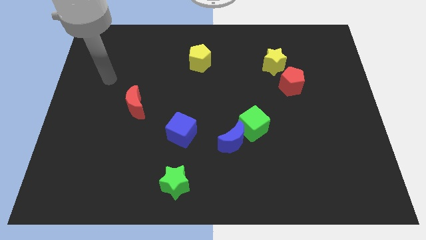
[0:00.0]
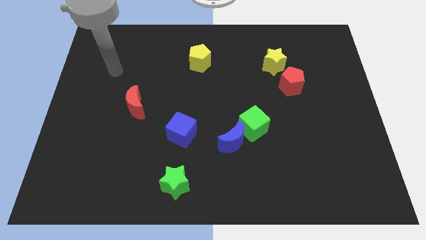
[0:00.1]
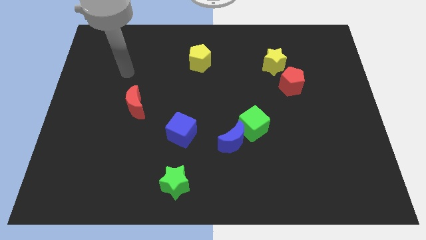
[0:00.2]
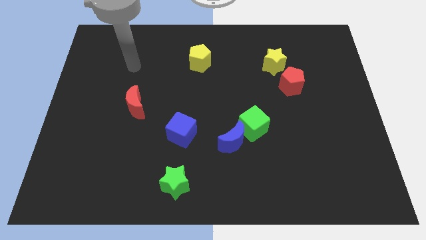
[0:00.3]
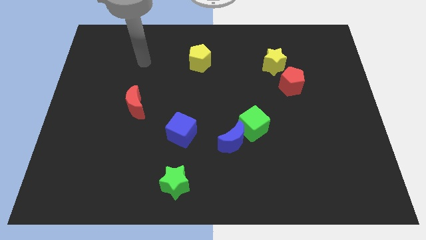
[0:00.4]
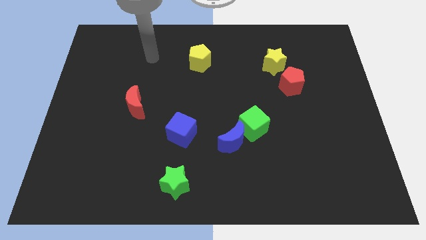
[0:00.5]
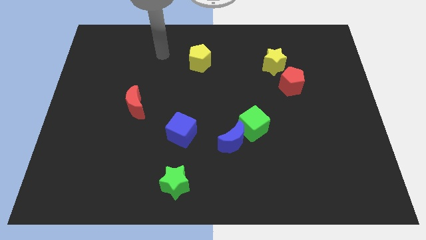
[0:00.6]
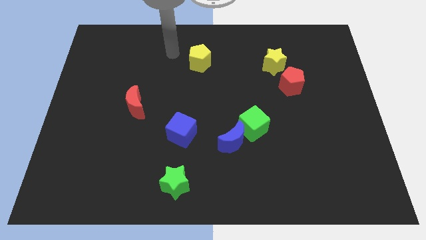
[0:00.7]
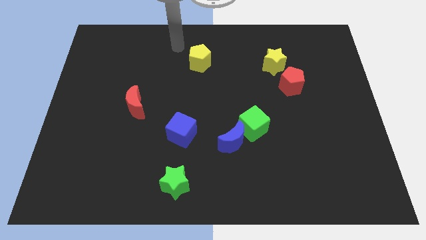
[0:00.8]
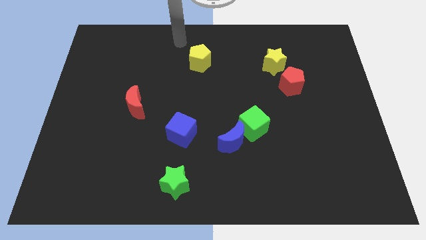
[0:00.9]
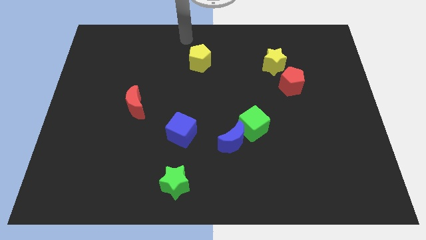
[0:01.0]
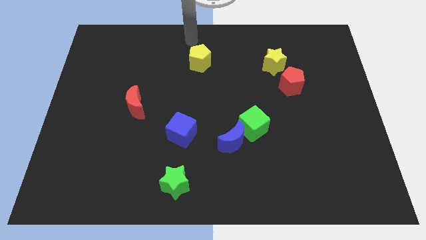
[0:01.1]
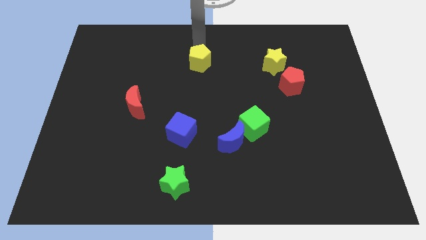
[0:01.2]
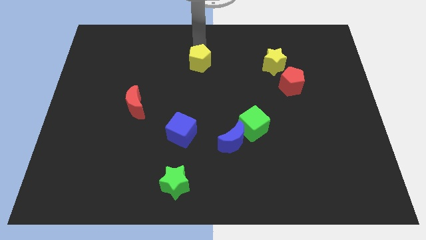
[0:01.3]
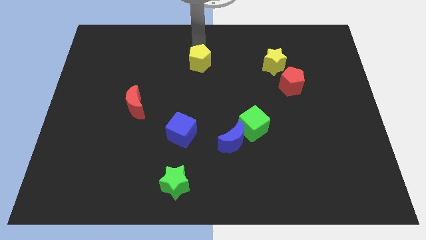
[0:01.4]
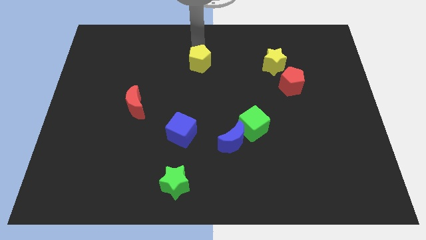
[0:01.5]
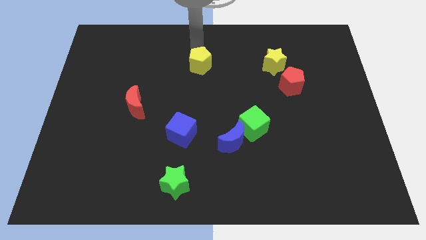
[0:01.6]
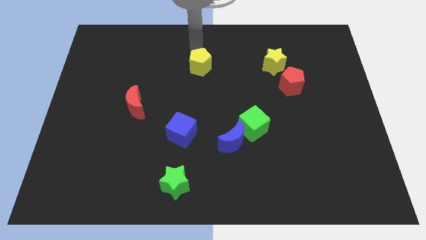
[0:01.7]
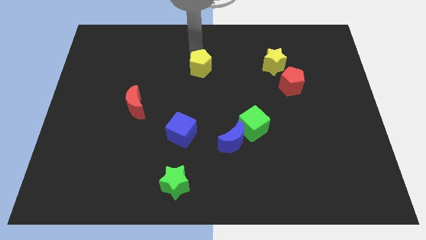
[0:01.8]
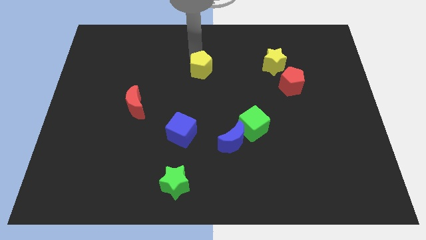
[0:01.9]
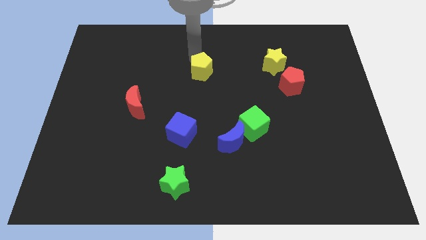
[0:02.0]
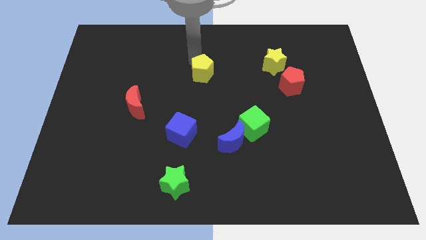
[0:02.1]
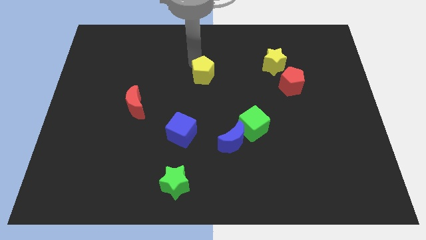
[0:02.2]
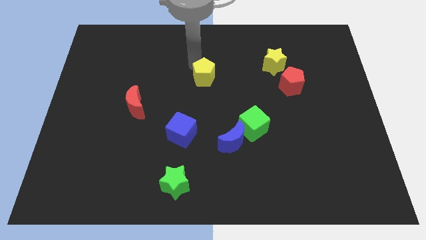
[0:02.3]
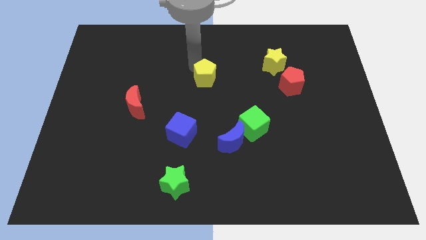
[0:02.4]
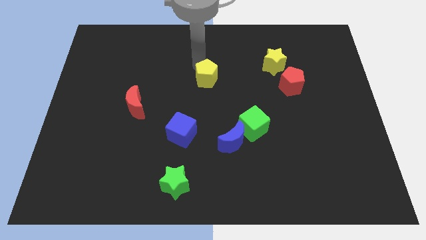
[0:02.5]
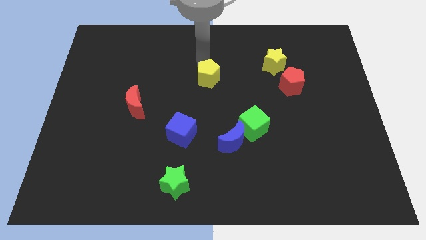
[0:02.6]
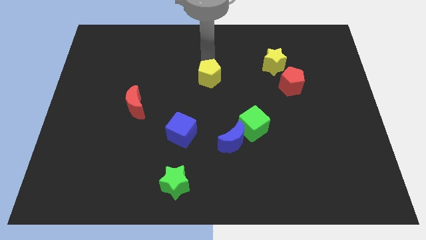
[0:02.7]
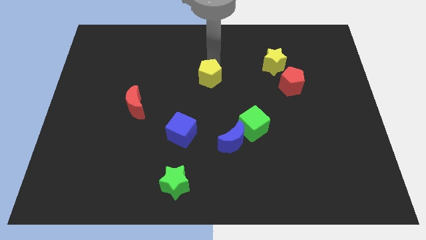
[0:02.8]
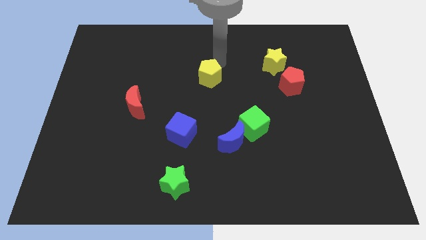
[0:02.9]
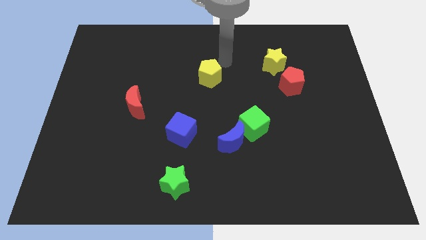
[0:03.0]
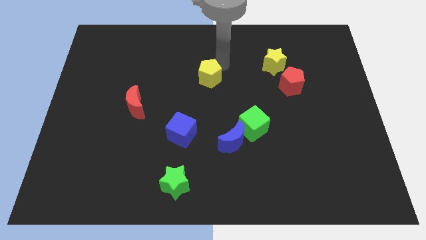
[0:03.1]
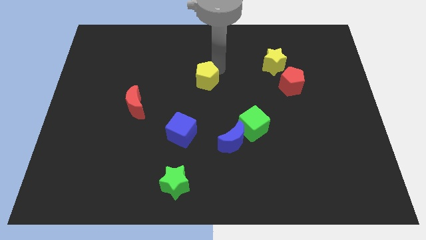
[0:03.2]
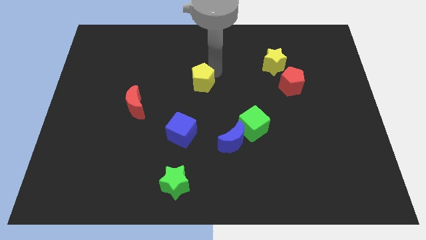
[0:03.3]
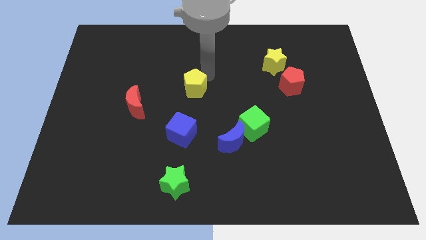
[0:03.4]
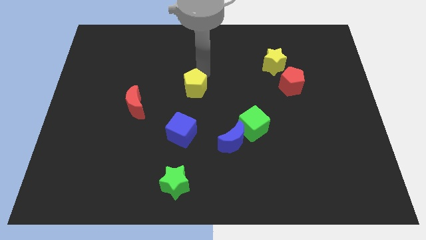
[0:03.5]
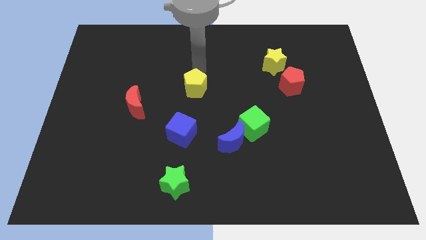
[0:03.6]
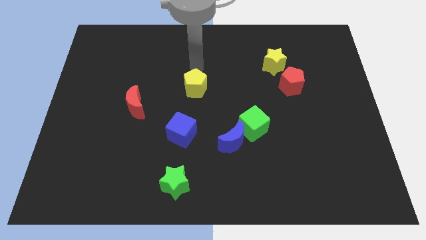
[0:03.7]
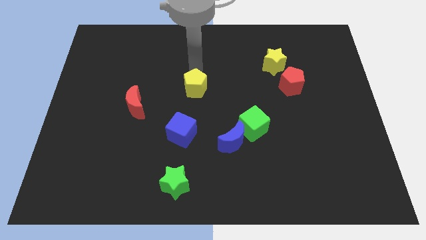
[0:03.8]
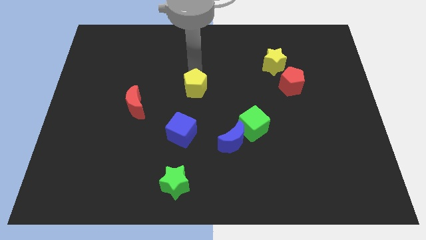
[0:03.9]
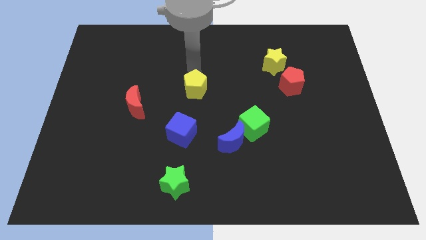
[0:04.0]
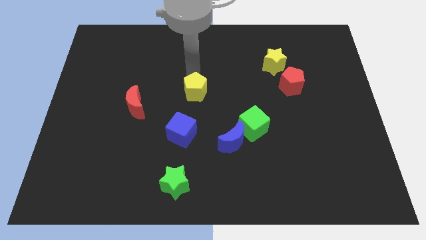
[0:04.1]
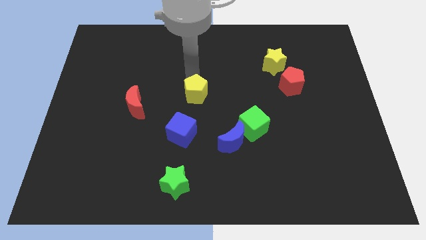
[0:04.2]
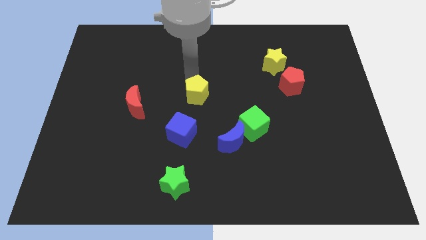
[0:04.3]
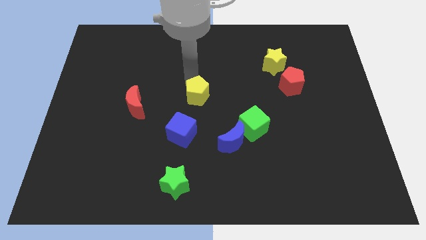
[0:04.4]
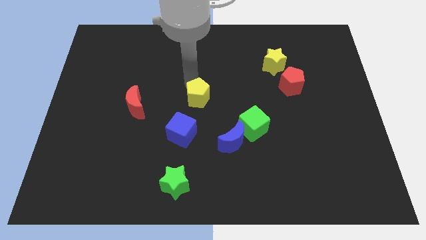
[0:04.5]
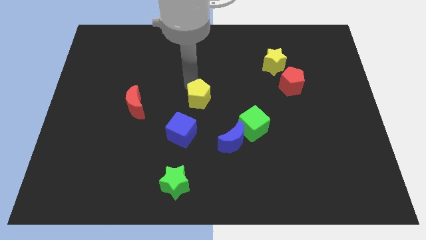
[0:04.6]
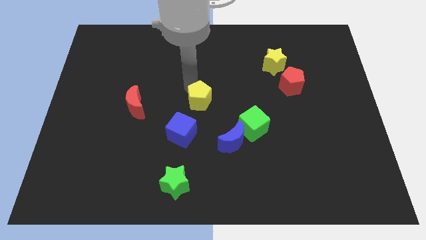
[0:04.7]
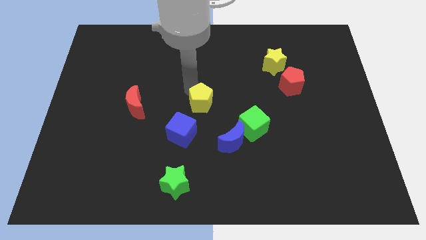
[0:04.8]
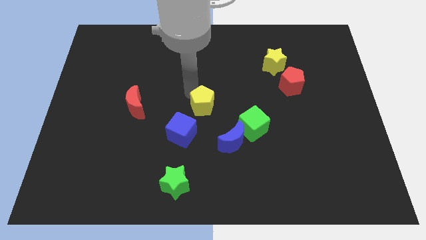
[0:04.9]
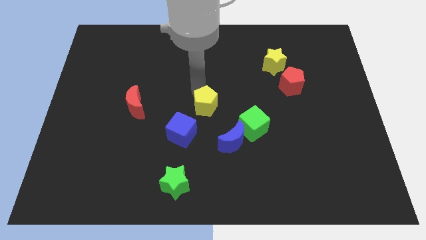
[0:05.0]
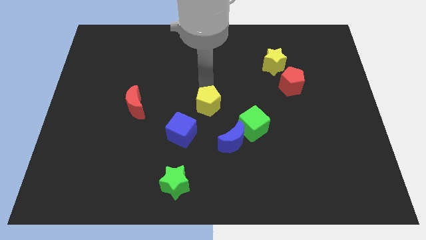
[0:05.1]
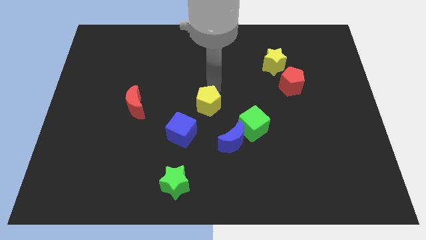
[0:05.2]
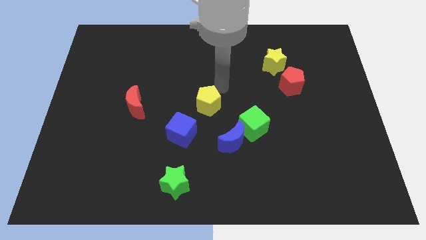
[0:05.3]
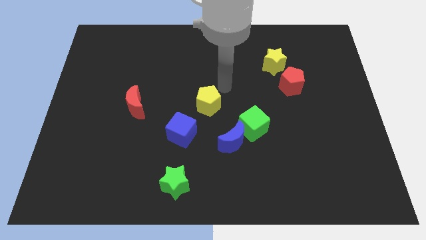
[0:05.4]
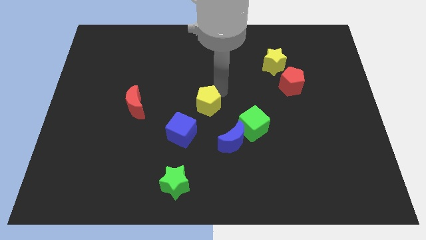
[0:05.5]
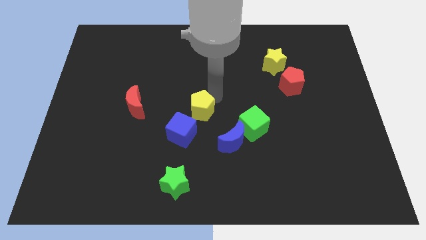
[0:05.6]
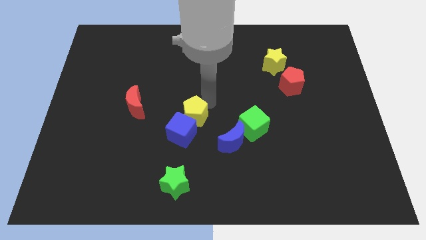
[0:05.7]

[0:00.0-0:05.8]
push the yellow pentagon next to the blue cube

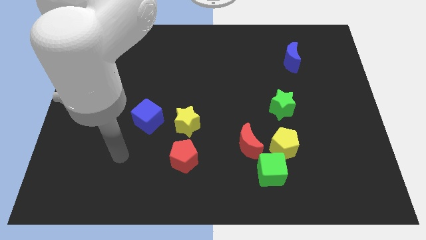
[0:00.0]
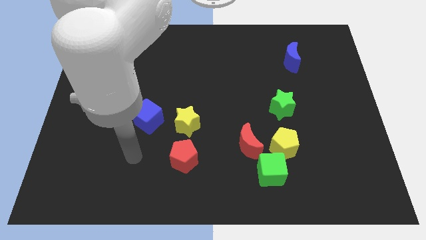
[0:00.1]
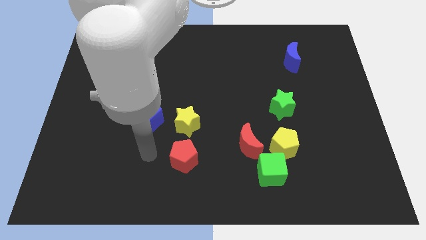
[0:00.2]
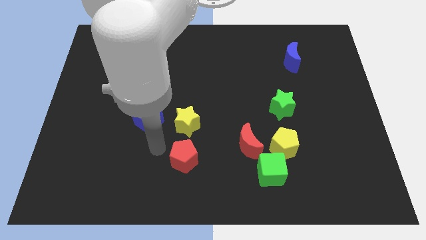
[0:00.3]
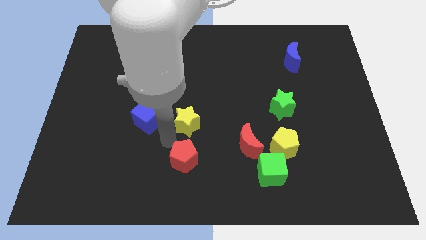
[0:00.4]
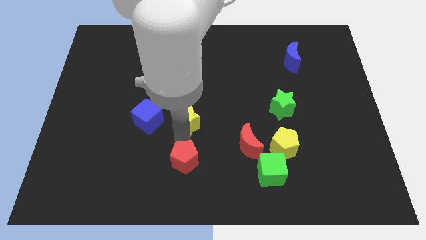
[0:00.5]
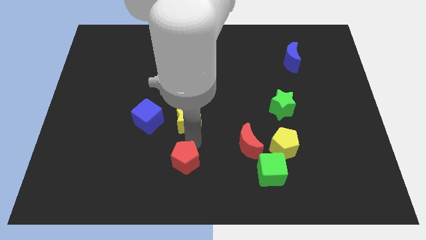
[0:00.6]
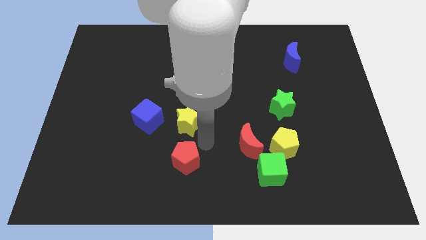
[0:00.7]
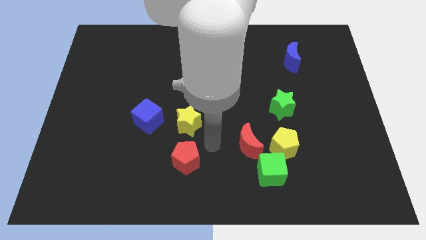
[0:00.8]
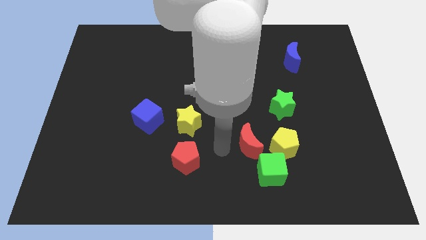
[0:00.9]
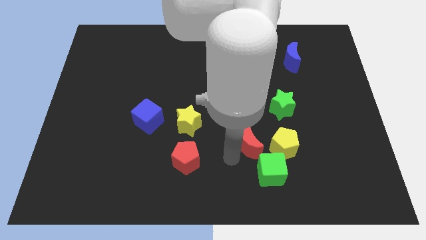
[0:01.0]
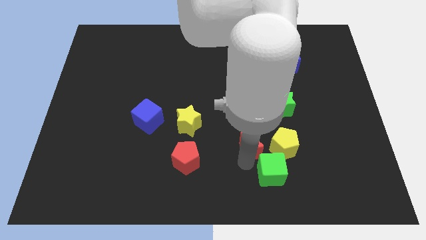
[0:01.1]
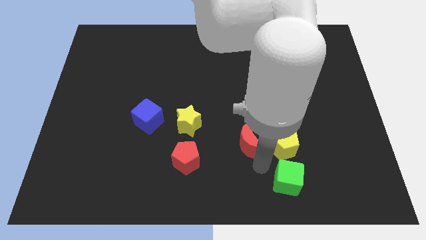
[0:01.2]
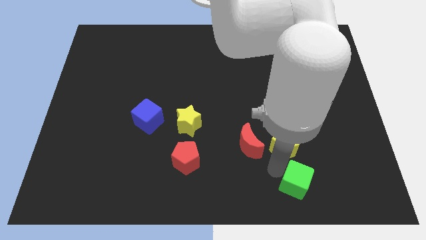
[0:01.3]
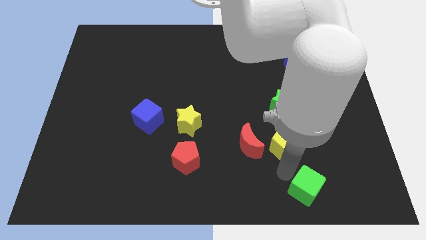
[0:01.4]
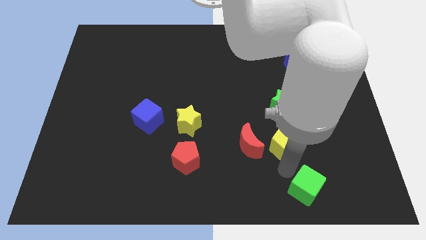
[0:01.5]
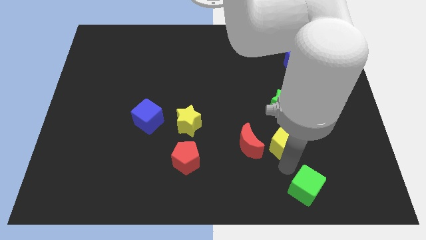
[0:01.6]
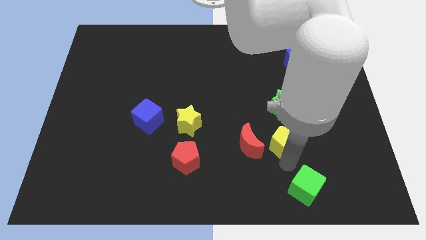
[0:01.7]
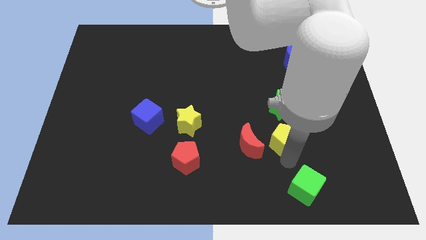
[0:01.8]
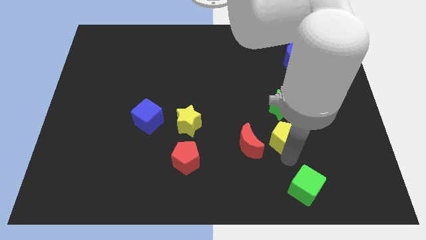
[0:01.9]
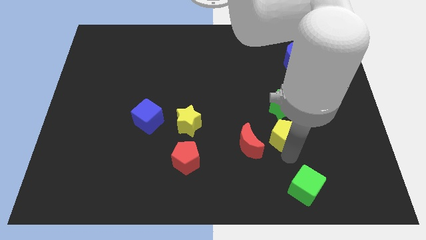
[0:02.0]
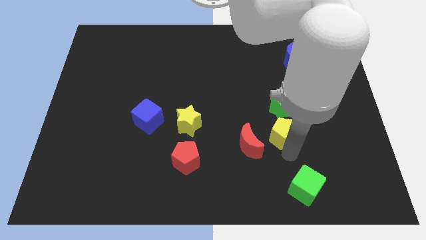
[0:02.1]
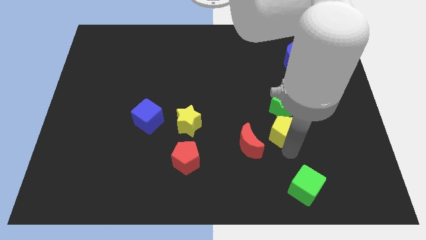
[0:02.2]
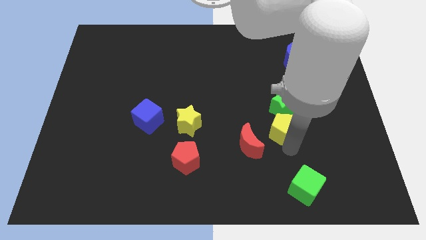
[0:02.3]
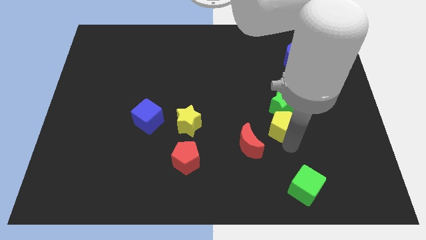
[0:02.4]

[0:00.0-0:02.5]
put the yellow pentagon towards the green star
